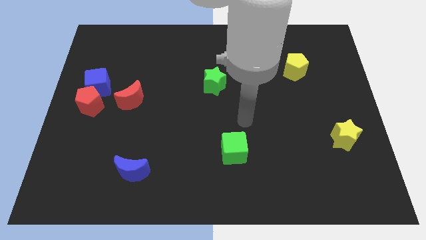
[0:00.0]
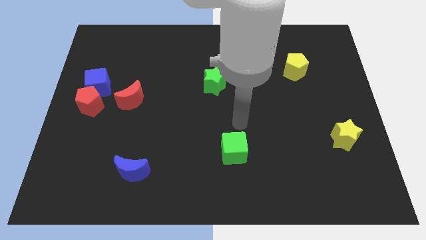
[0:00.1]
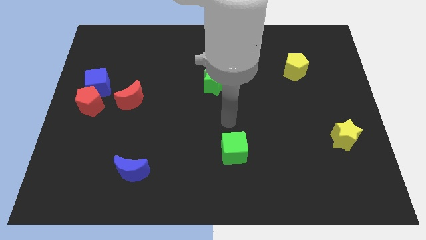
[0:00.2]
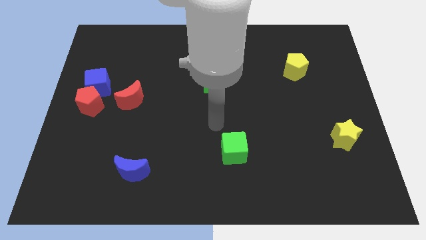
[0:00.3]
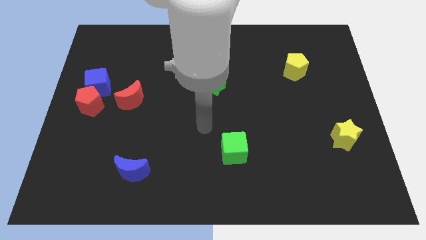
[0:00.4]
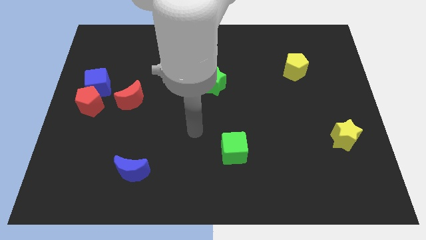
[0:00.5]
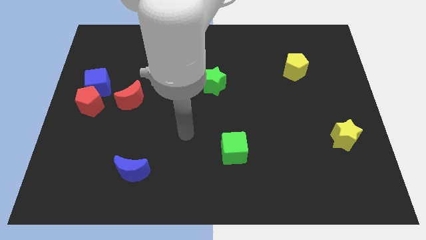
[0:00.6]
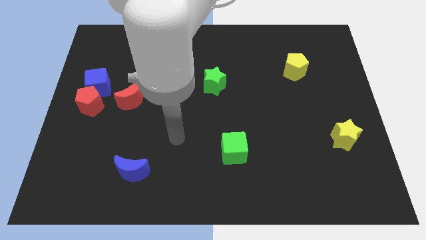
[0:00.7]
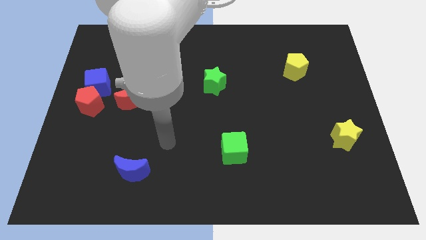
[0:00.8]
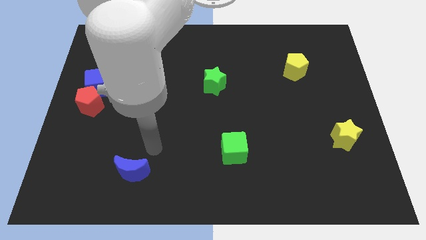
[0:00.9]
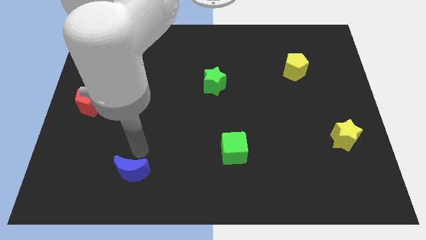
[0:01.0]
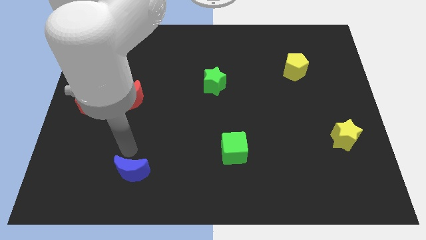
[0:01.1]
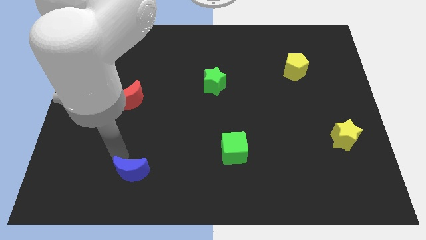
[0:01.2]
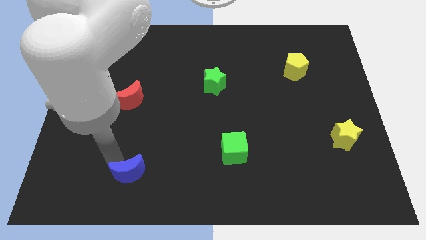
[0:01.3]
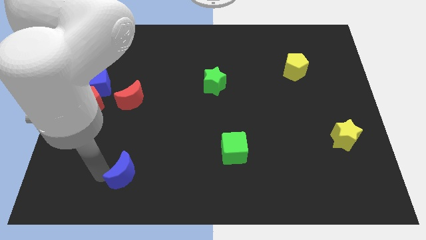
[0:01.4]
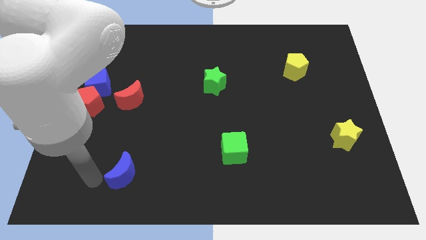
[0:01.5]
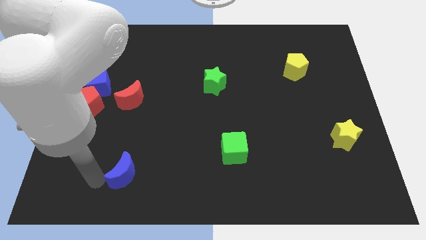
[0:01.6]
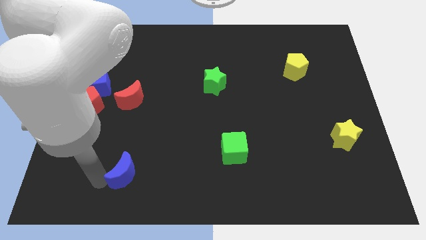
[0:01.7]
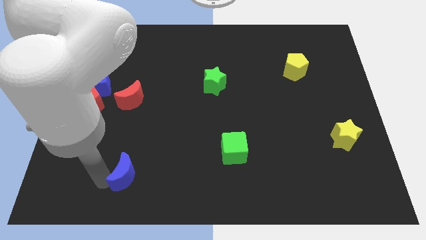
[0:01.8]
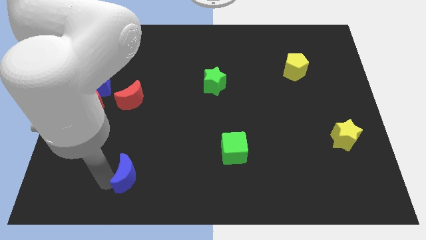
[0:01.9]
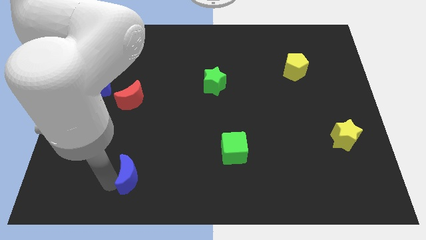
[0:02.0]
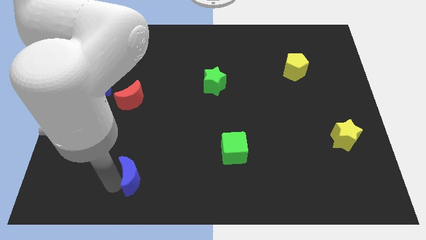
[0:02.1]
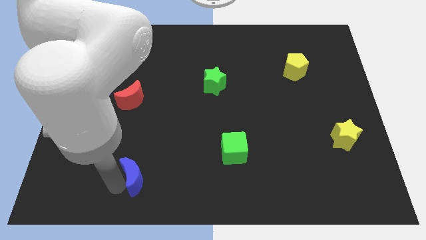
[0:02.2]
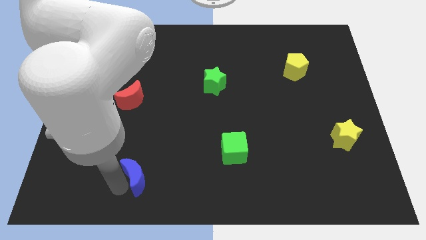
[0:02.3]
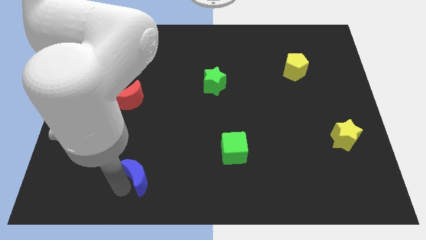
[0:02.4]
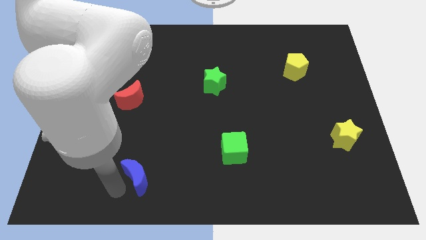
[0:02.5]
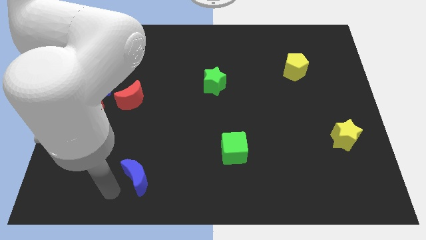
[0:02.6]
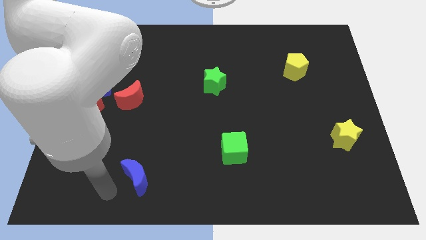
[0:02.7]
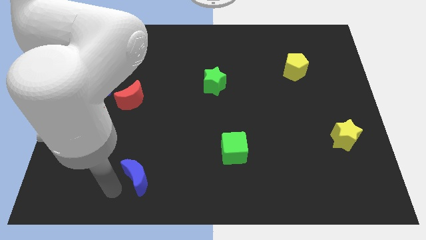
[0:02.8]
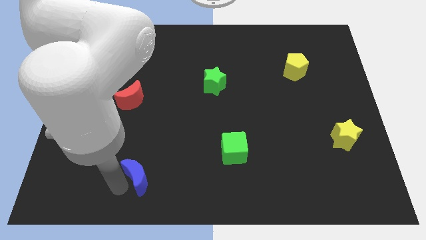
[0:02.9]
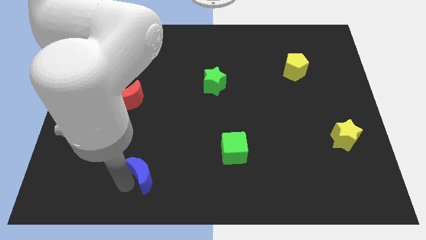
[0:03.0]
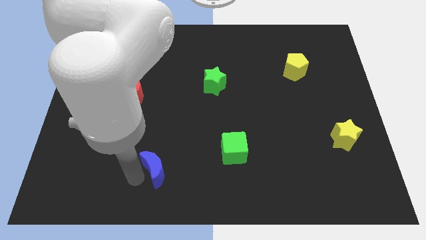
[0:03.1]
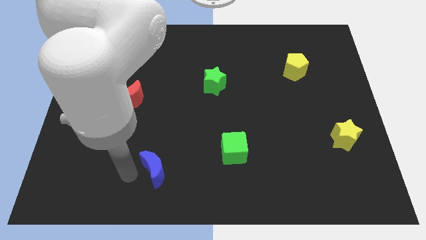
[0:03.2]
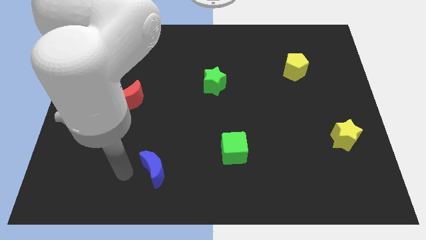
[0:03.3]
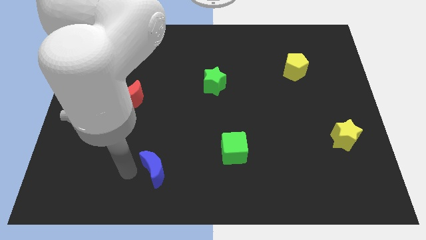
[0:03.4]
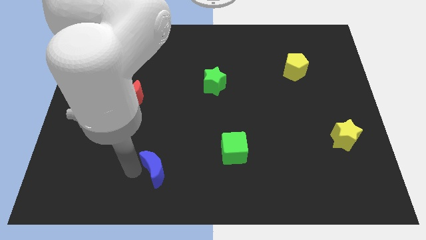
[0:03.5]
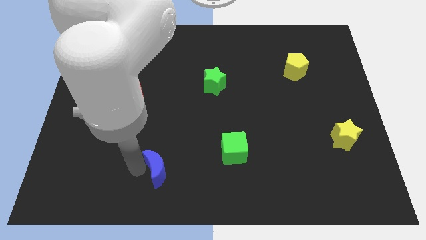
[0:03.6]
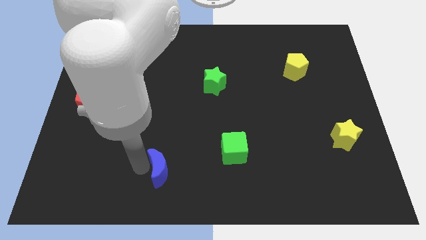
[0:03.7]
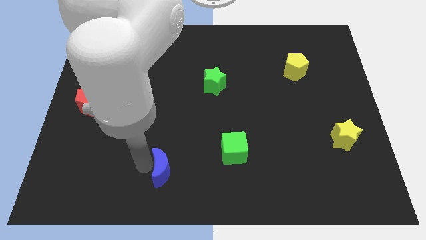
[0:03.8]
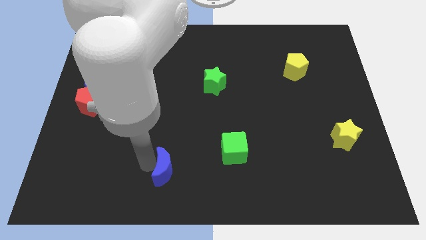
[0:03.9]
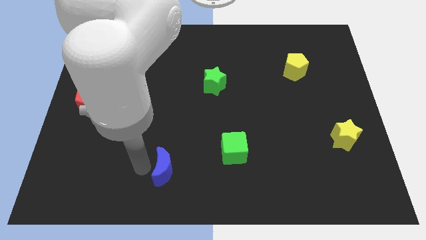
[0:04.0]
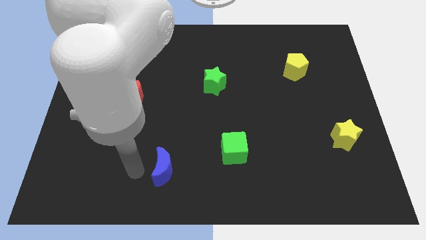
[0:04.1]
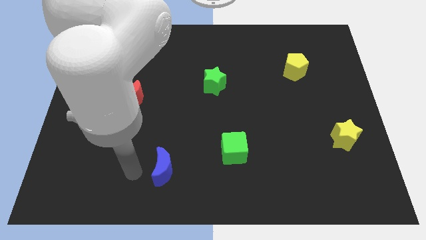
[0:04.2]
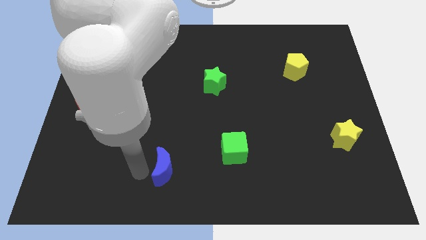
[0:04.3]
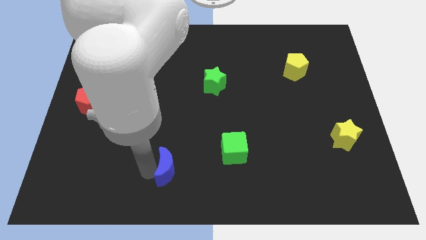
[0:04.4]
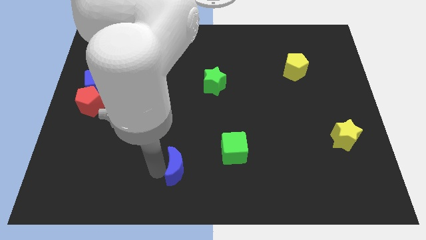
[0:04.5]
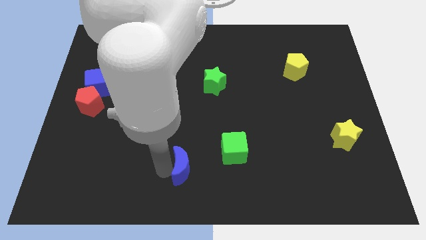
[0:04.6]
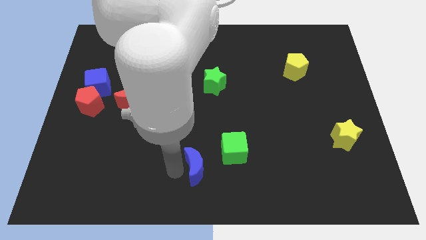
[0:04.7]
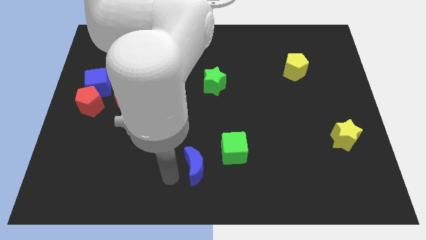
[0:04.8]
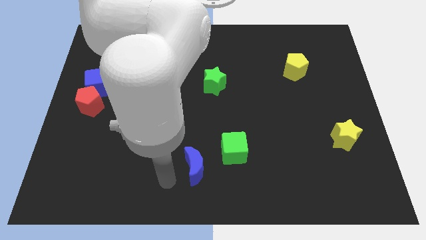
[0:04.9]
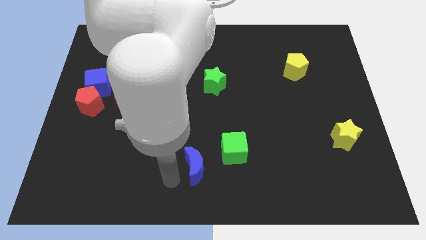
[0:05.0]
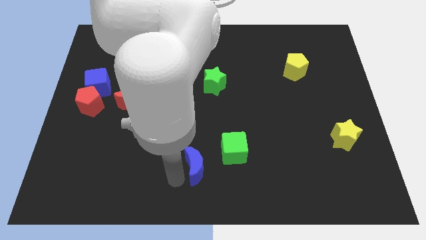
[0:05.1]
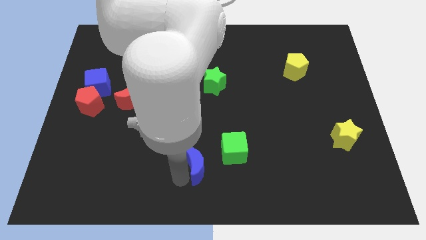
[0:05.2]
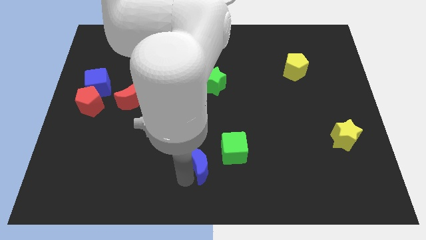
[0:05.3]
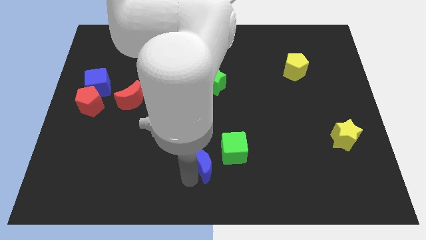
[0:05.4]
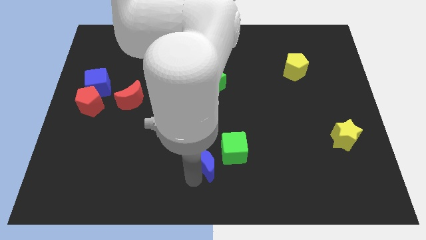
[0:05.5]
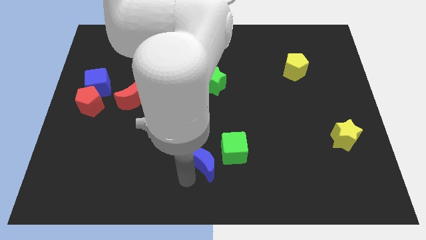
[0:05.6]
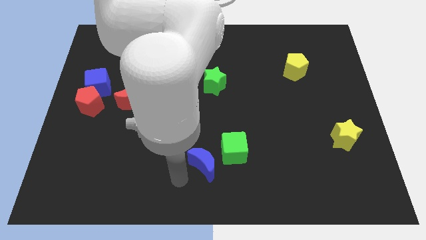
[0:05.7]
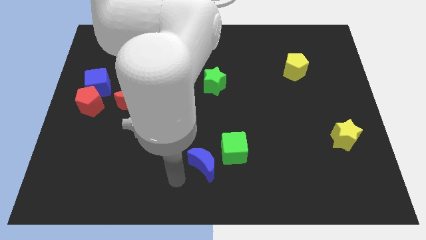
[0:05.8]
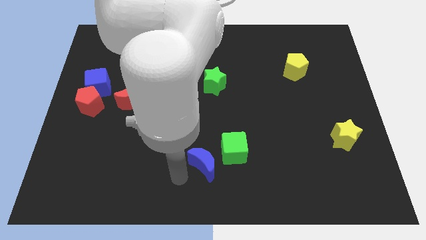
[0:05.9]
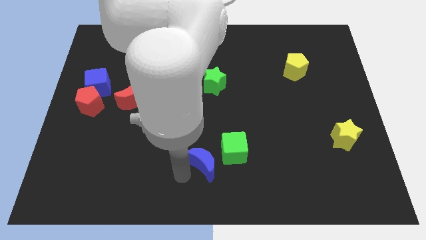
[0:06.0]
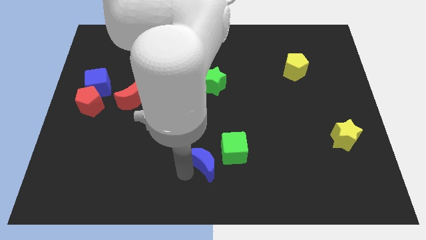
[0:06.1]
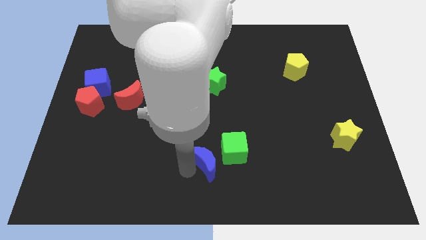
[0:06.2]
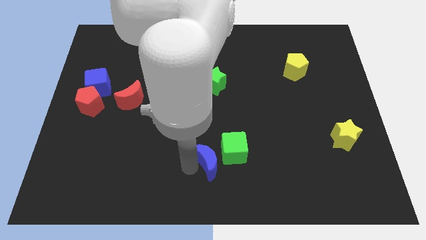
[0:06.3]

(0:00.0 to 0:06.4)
push the blue moon to the green cube
